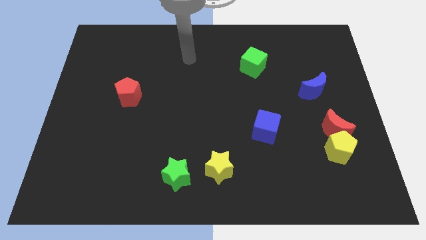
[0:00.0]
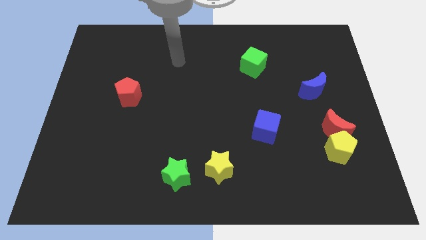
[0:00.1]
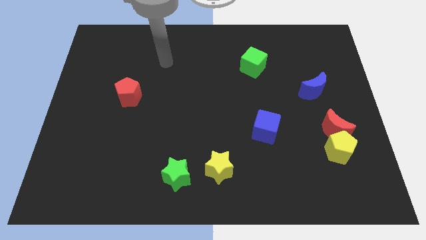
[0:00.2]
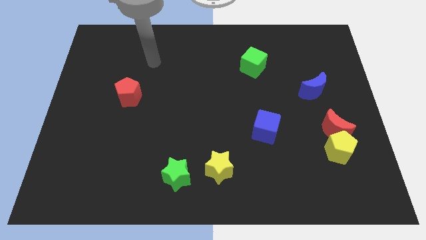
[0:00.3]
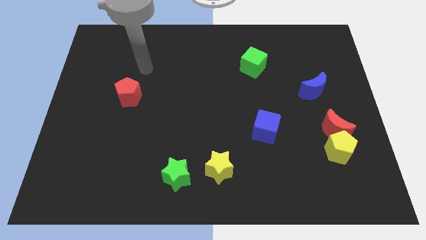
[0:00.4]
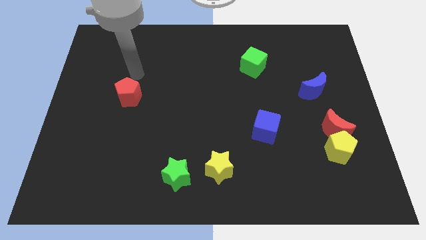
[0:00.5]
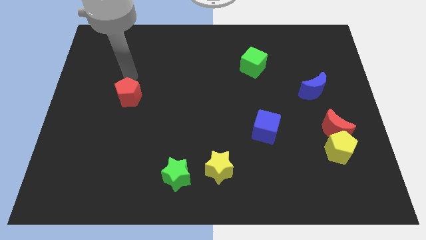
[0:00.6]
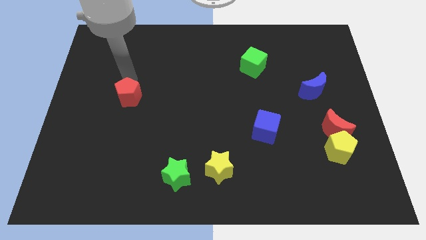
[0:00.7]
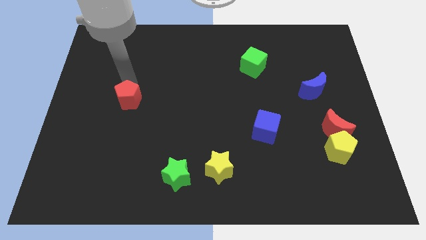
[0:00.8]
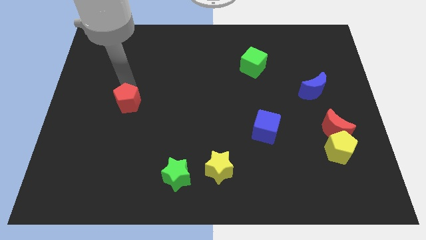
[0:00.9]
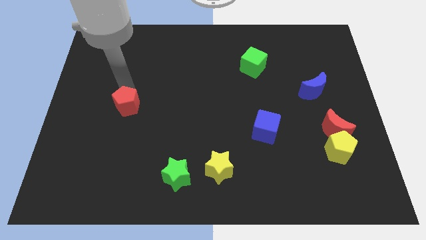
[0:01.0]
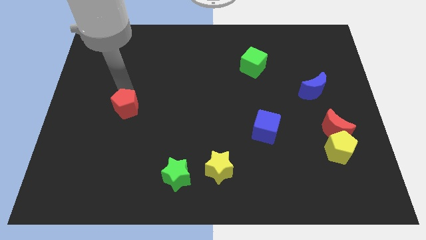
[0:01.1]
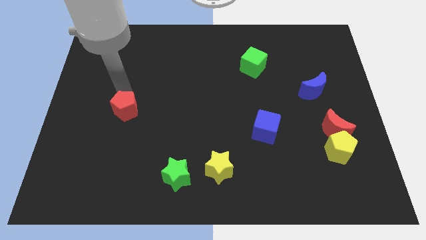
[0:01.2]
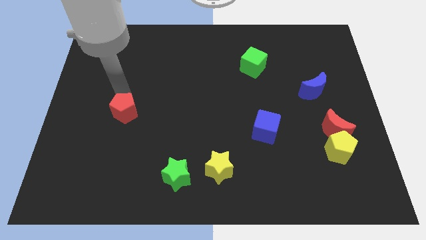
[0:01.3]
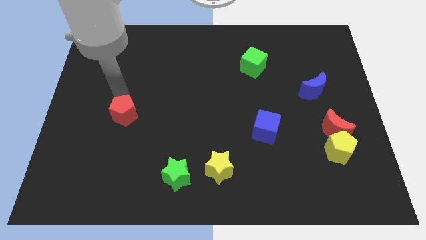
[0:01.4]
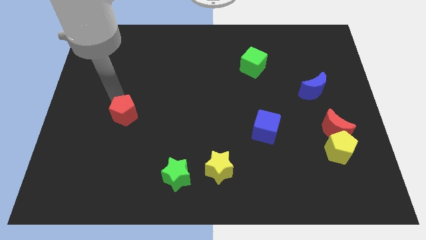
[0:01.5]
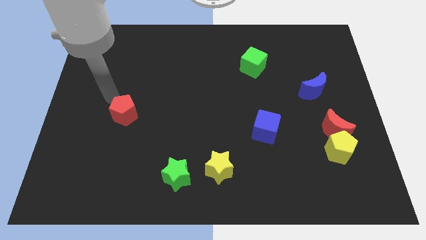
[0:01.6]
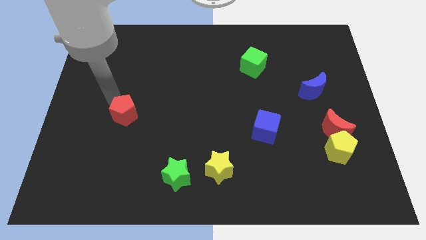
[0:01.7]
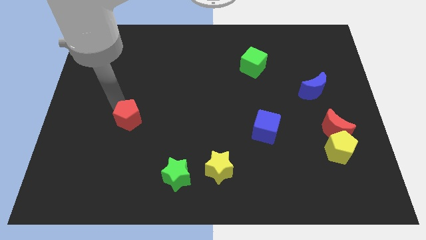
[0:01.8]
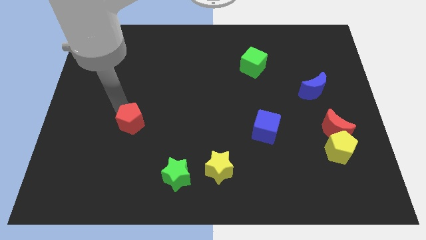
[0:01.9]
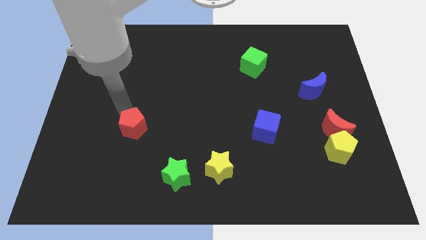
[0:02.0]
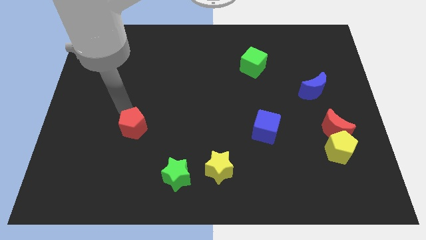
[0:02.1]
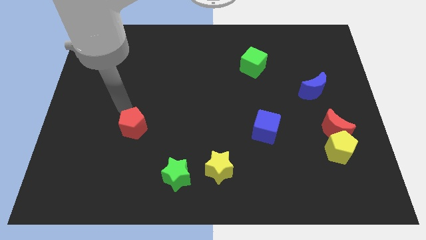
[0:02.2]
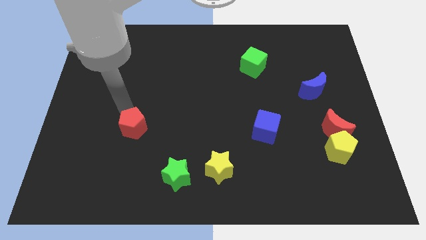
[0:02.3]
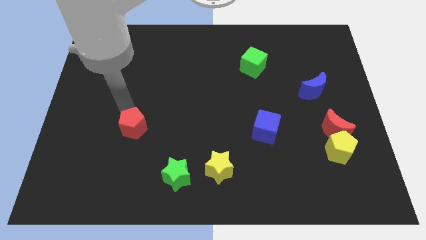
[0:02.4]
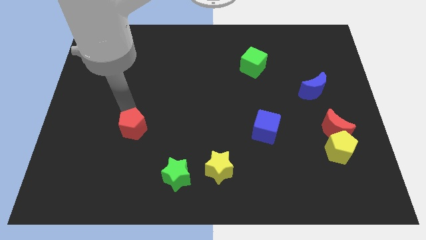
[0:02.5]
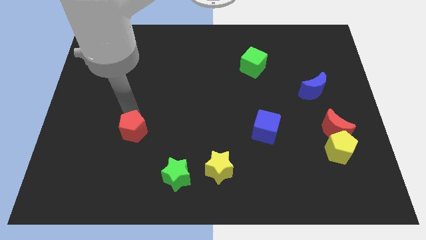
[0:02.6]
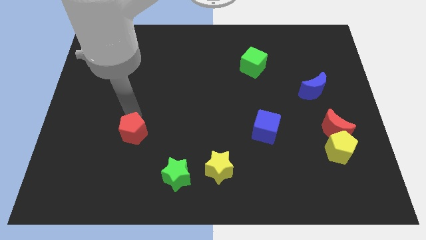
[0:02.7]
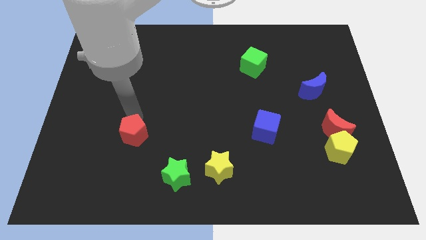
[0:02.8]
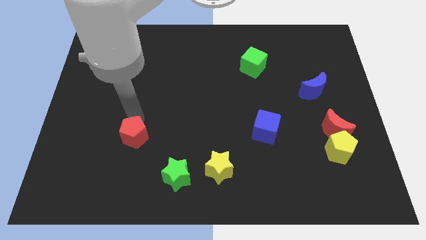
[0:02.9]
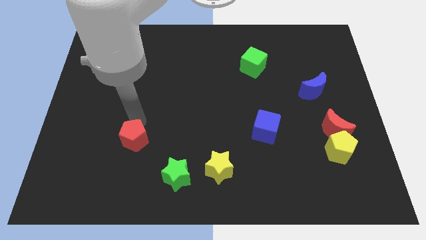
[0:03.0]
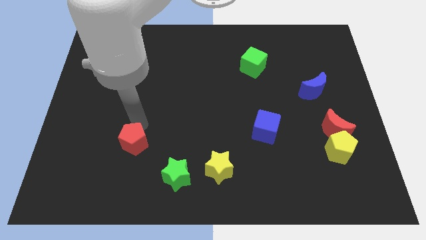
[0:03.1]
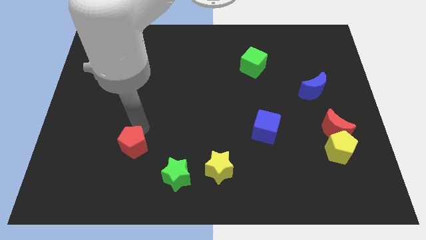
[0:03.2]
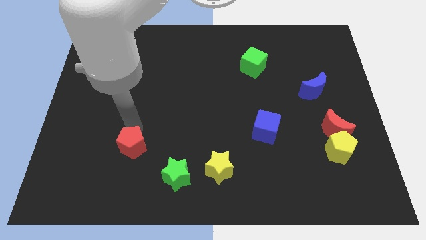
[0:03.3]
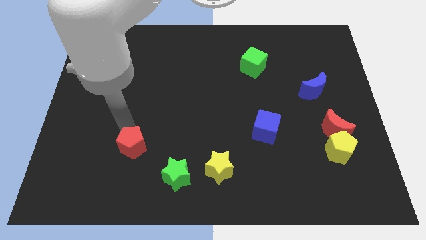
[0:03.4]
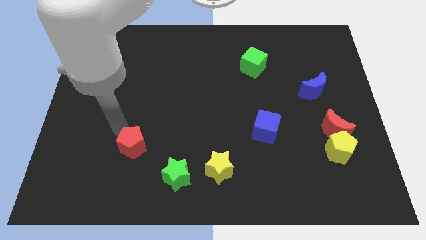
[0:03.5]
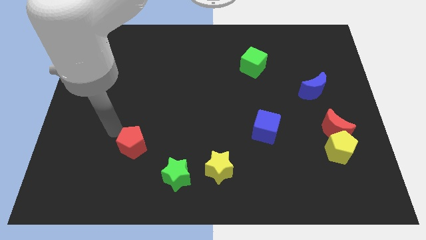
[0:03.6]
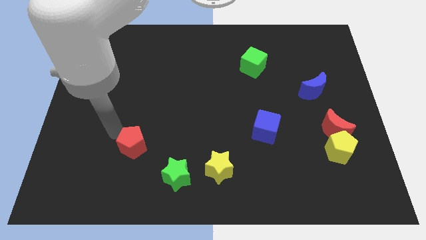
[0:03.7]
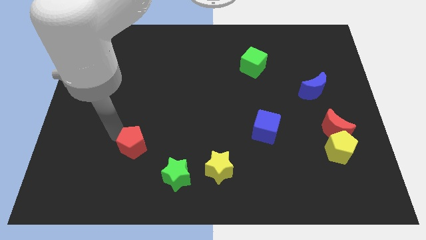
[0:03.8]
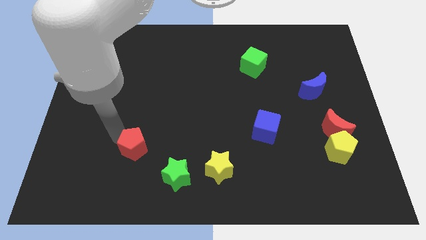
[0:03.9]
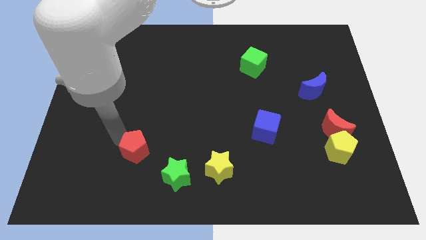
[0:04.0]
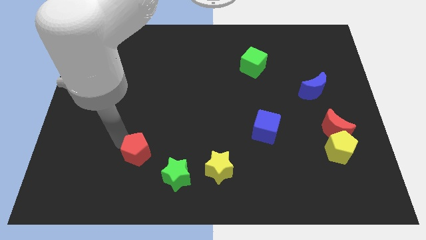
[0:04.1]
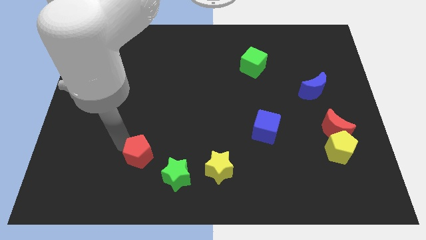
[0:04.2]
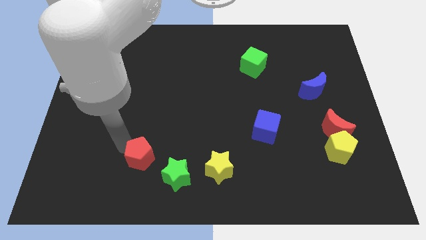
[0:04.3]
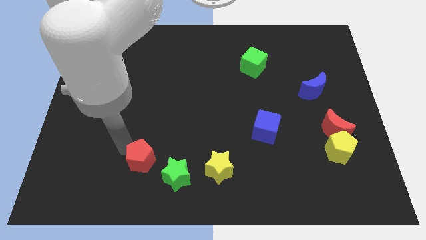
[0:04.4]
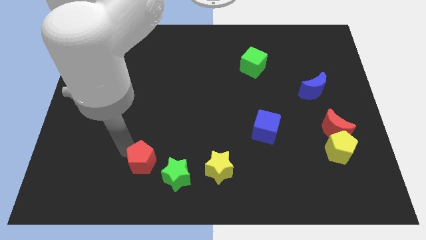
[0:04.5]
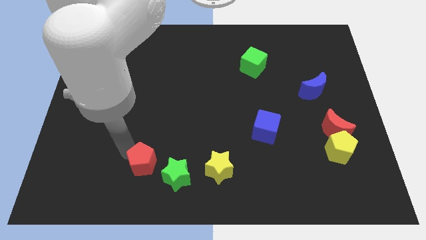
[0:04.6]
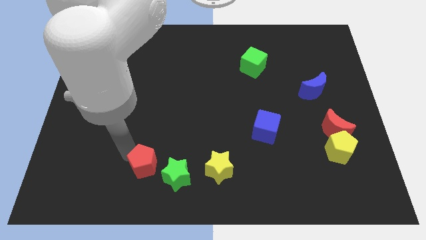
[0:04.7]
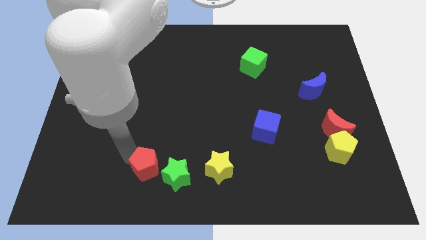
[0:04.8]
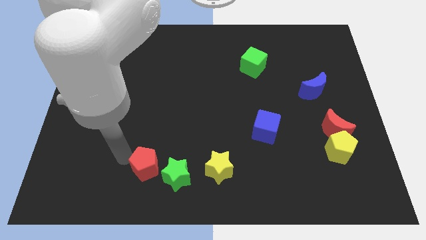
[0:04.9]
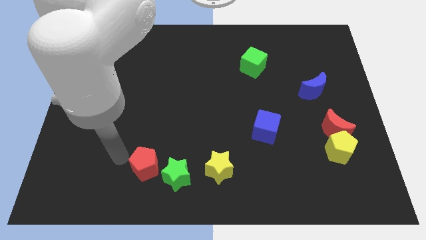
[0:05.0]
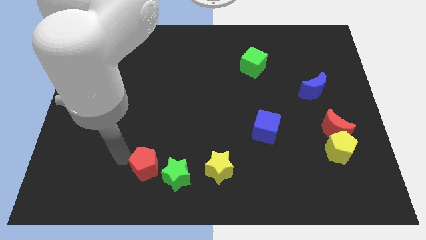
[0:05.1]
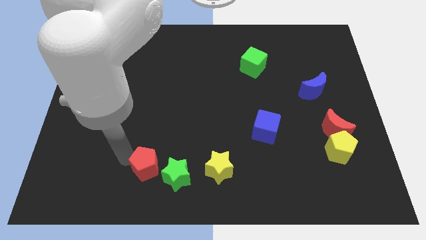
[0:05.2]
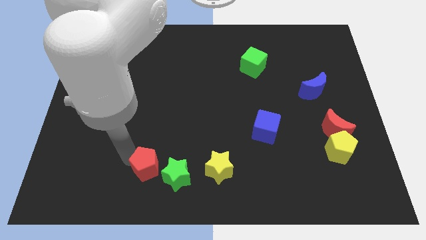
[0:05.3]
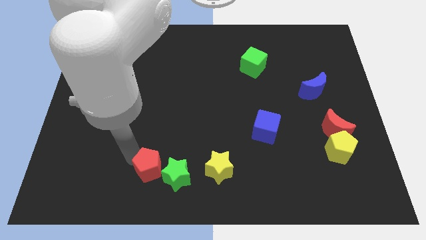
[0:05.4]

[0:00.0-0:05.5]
push the red pentagon next to the green star

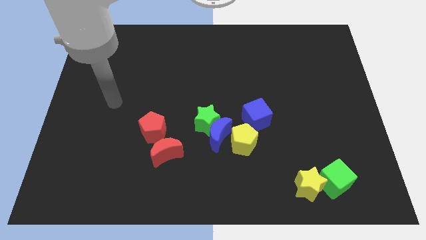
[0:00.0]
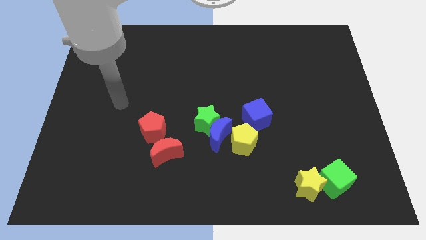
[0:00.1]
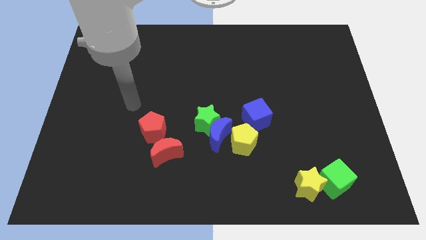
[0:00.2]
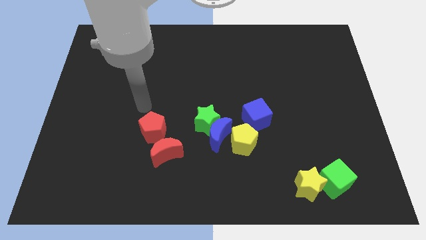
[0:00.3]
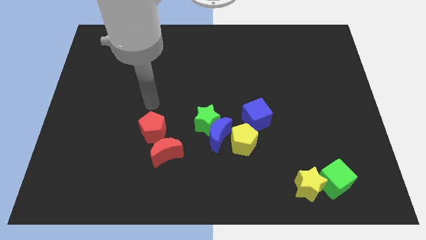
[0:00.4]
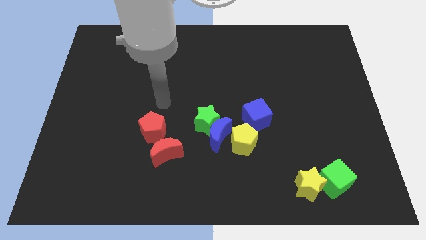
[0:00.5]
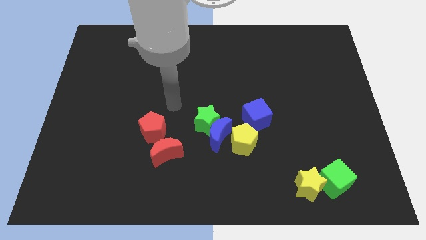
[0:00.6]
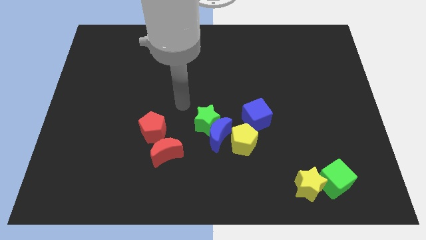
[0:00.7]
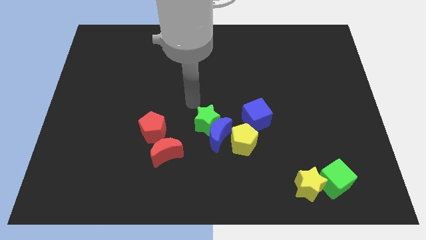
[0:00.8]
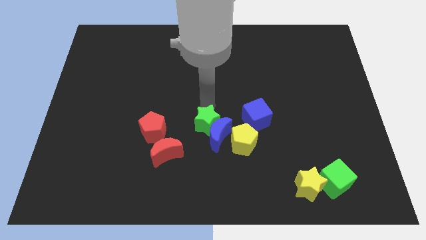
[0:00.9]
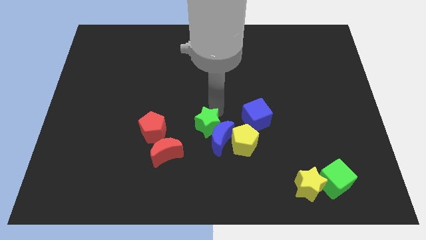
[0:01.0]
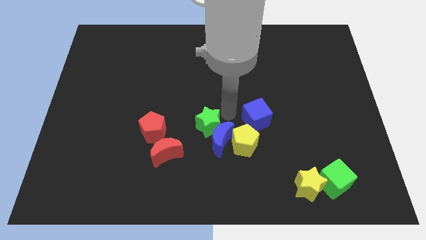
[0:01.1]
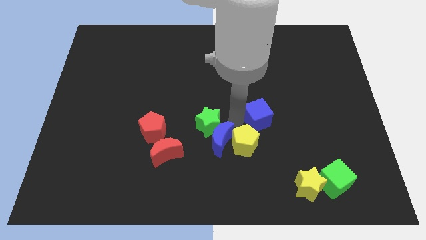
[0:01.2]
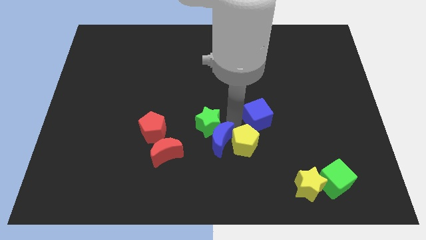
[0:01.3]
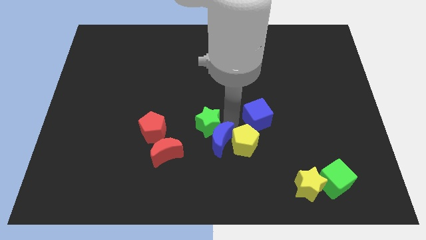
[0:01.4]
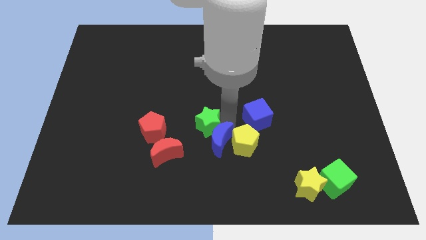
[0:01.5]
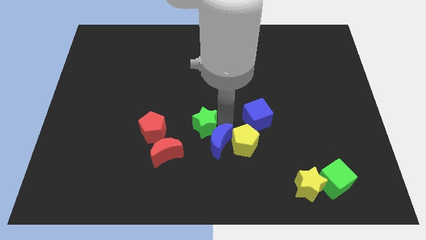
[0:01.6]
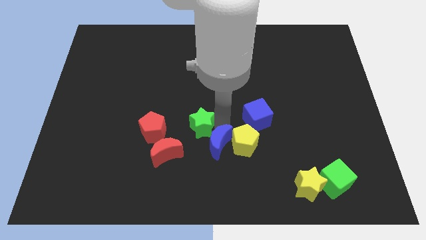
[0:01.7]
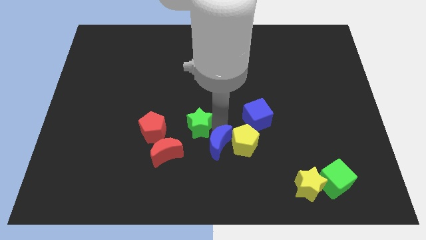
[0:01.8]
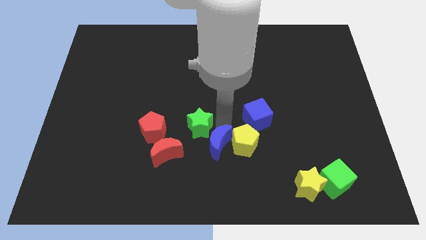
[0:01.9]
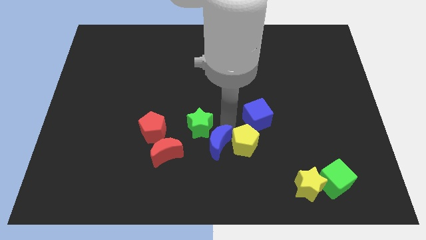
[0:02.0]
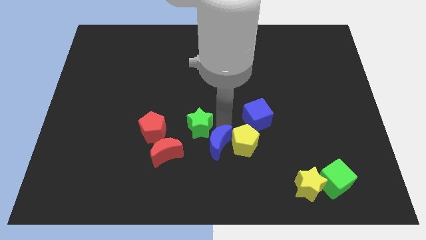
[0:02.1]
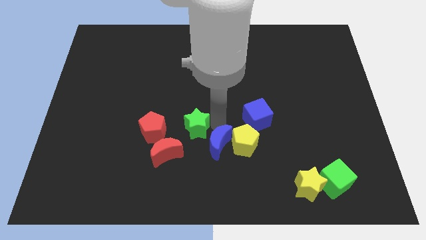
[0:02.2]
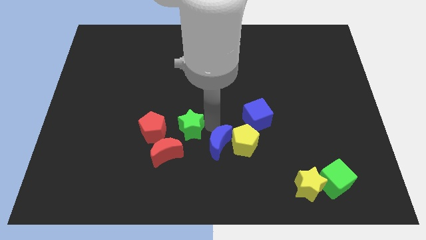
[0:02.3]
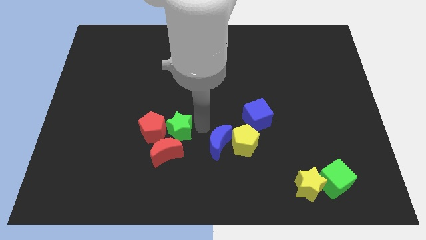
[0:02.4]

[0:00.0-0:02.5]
push the green star to the red pentagon
